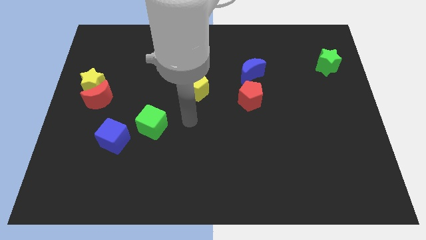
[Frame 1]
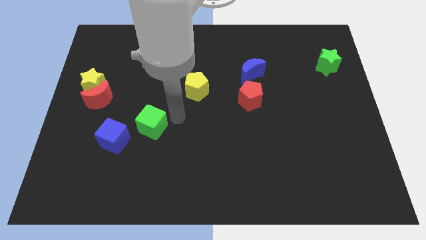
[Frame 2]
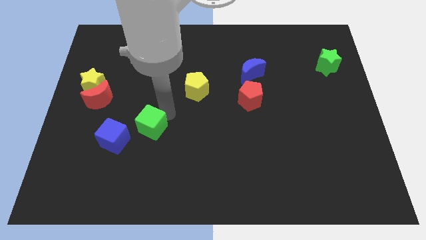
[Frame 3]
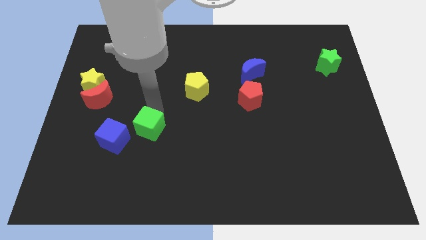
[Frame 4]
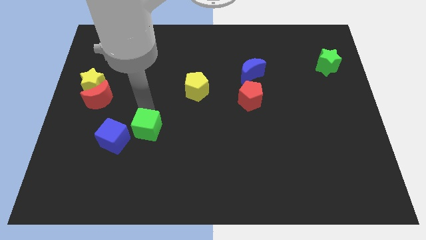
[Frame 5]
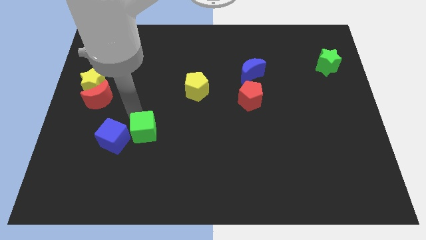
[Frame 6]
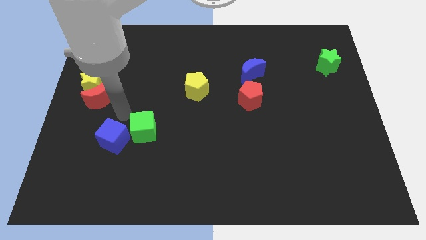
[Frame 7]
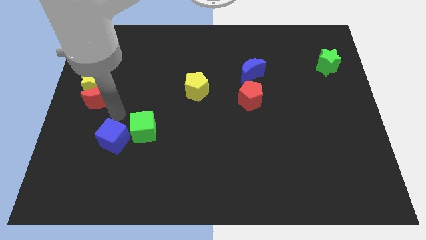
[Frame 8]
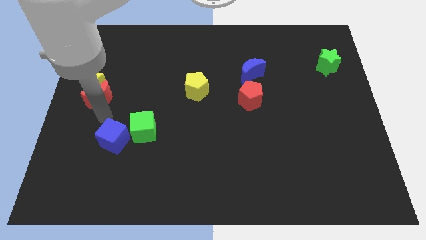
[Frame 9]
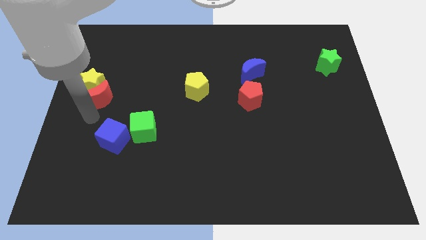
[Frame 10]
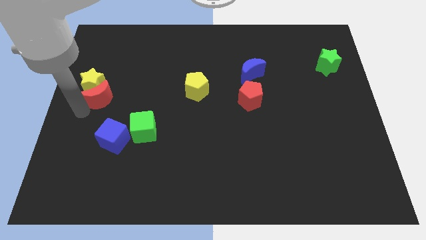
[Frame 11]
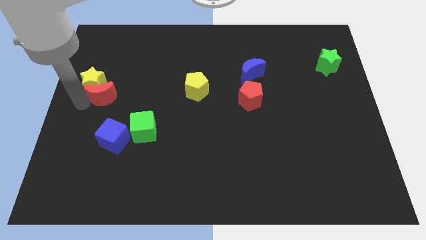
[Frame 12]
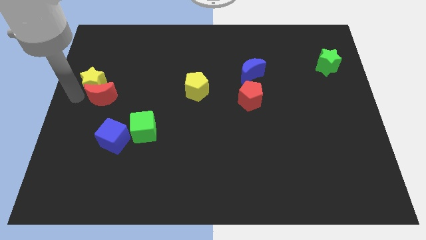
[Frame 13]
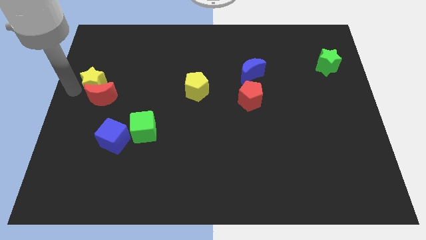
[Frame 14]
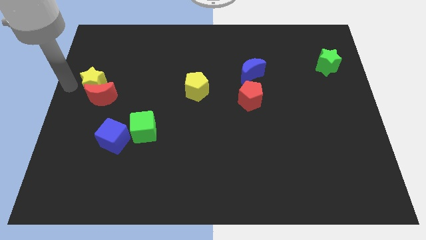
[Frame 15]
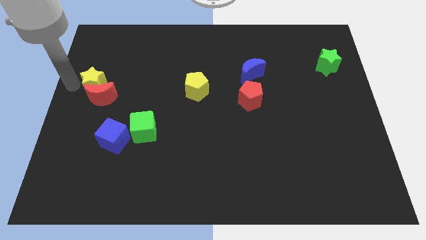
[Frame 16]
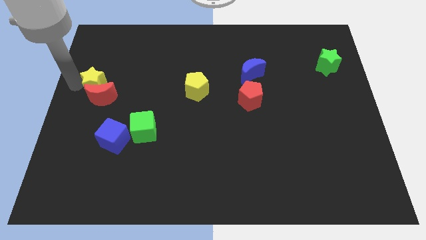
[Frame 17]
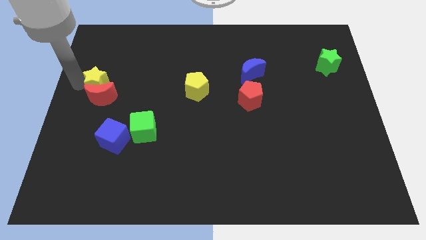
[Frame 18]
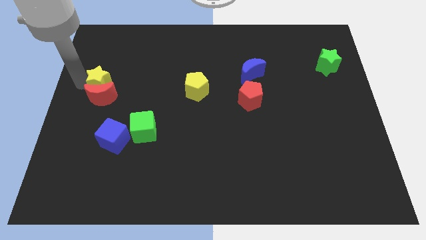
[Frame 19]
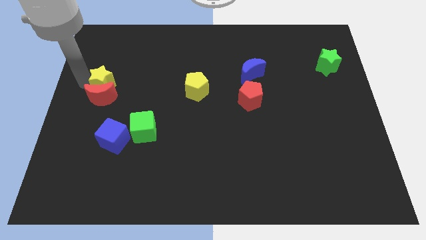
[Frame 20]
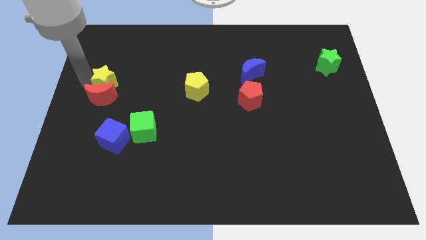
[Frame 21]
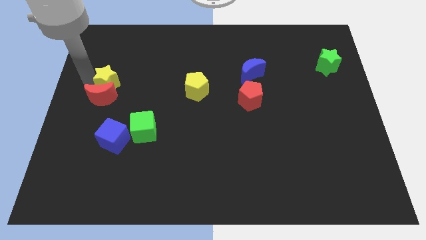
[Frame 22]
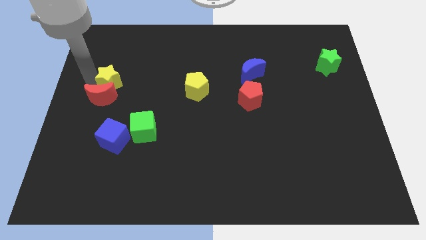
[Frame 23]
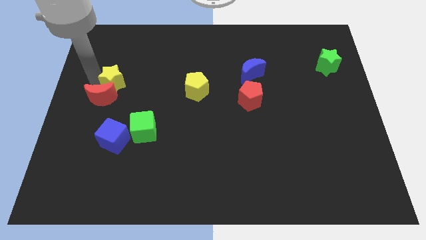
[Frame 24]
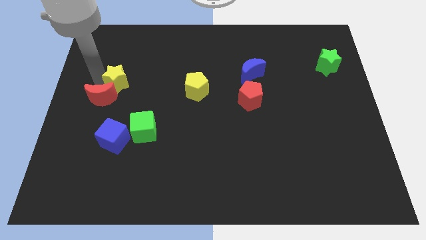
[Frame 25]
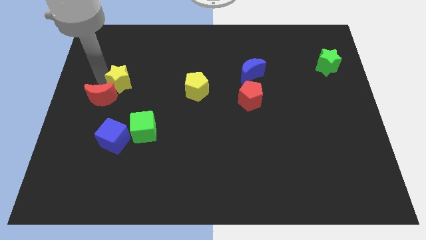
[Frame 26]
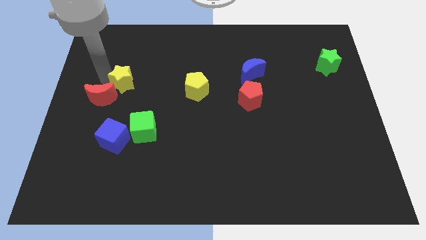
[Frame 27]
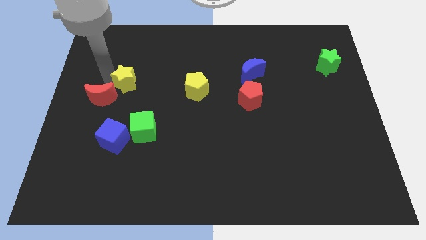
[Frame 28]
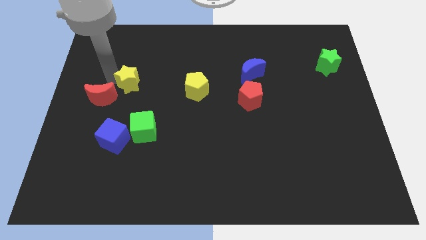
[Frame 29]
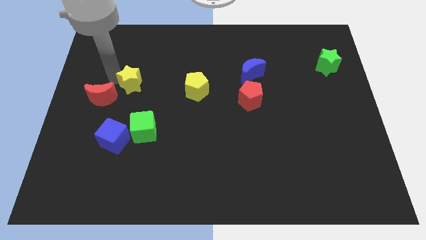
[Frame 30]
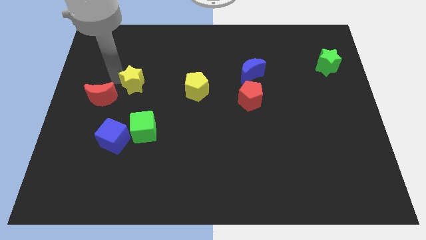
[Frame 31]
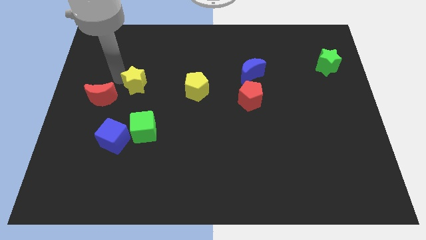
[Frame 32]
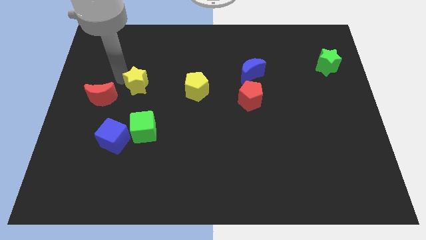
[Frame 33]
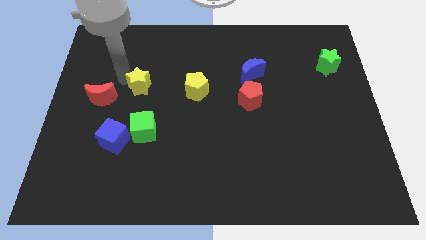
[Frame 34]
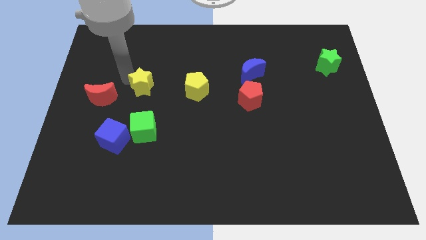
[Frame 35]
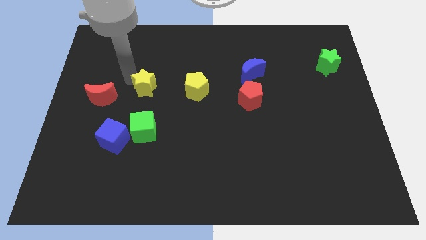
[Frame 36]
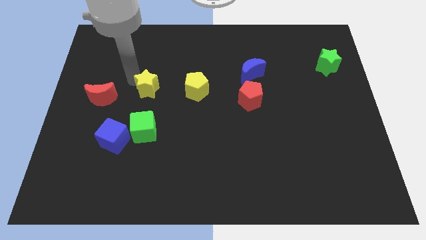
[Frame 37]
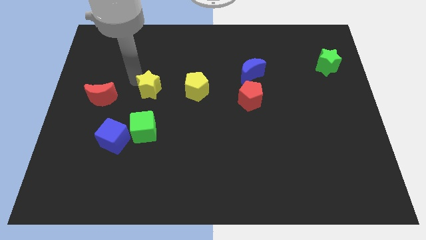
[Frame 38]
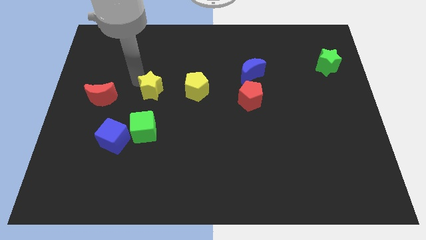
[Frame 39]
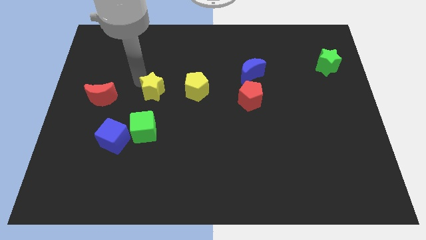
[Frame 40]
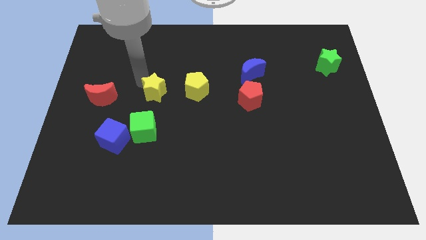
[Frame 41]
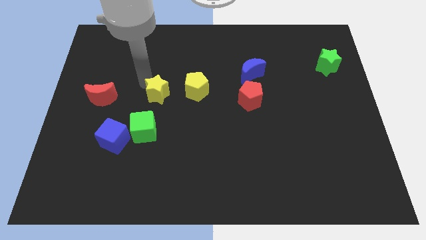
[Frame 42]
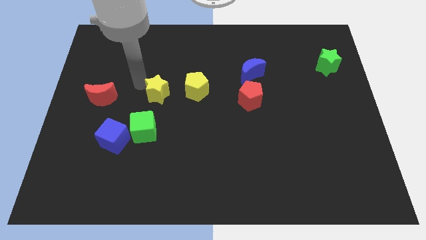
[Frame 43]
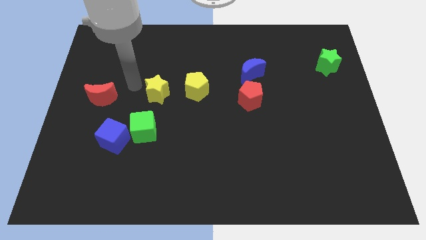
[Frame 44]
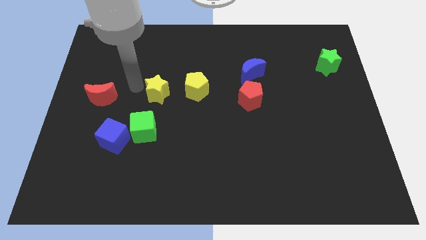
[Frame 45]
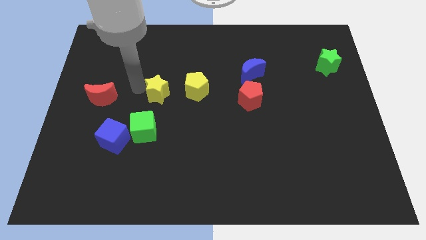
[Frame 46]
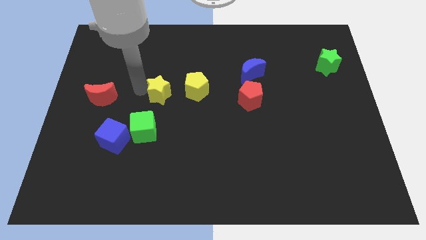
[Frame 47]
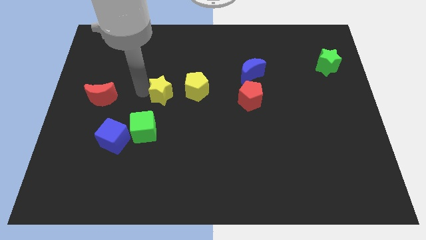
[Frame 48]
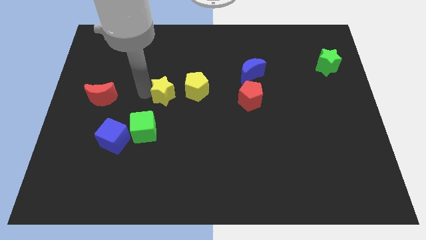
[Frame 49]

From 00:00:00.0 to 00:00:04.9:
slide the yellow star to the middle of the board

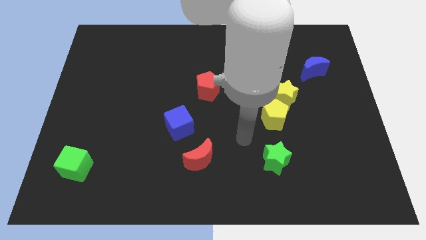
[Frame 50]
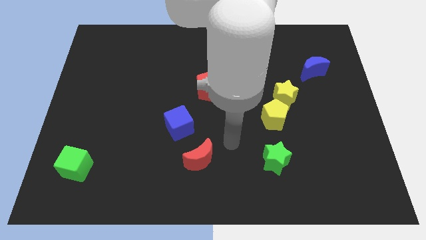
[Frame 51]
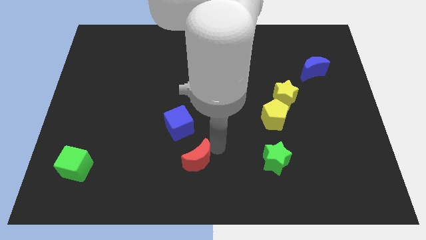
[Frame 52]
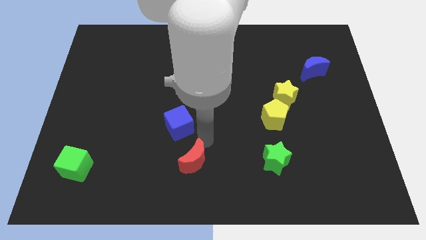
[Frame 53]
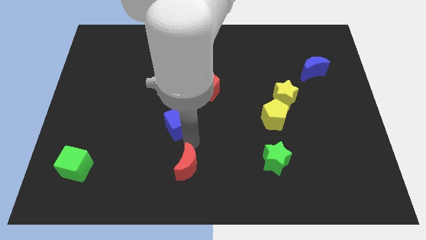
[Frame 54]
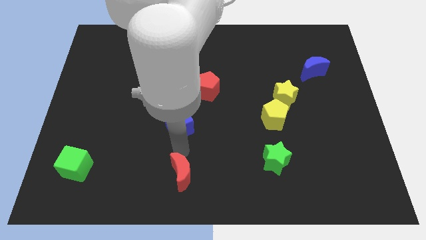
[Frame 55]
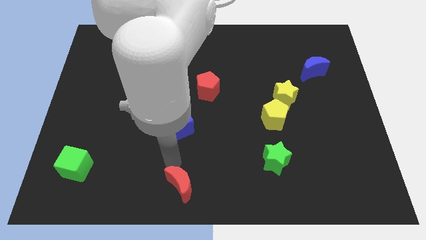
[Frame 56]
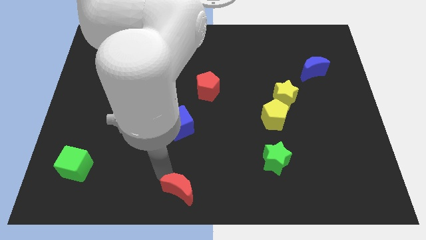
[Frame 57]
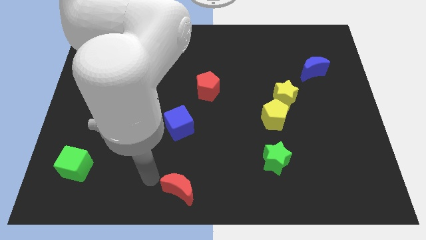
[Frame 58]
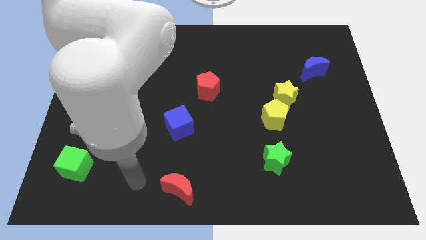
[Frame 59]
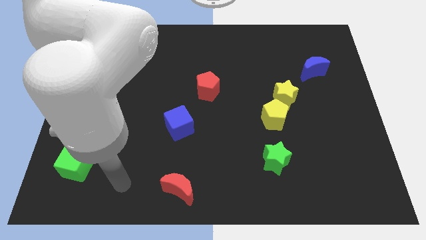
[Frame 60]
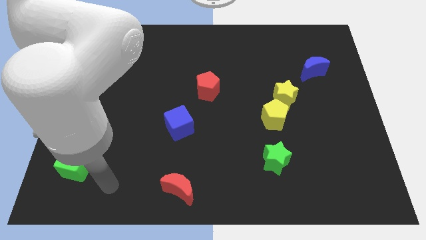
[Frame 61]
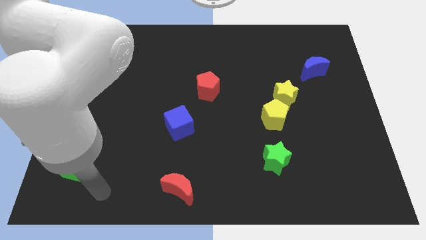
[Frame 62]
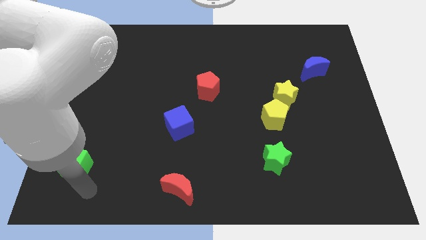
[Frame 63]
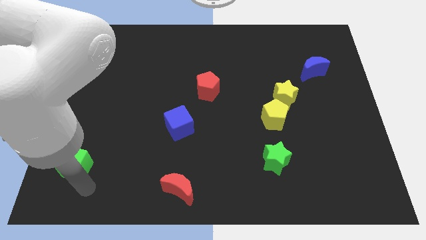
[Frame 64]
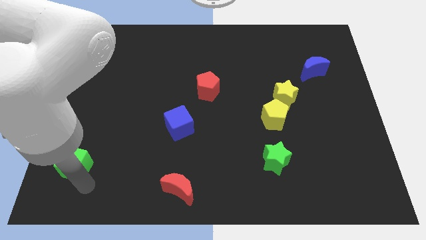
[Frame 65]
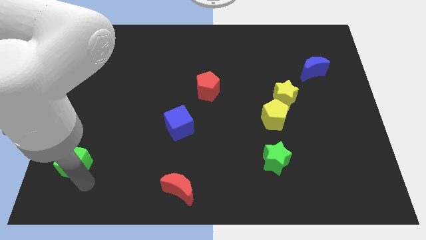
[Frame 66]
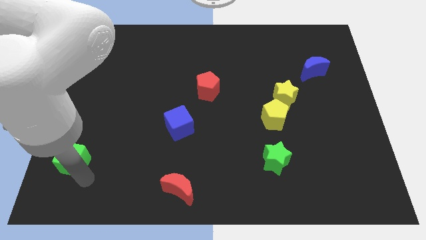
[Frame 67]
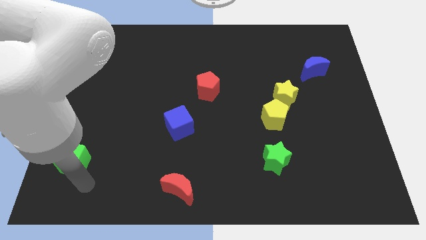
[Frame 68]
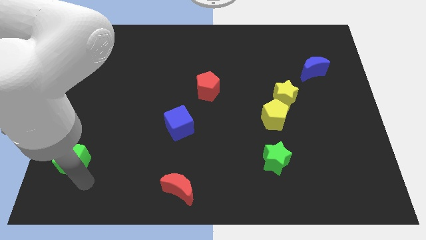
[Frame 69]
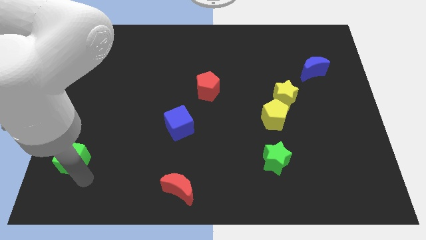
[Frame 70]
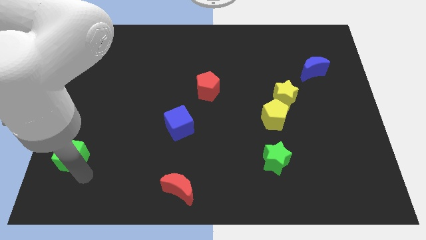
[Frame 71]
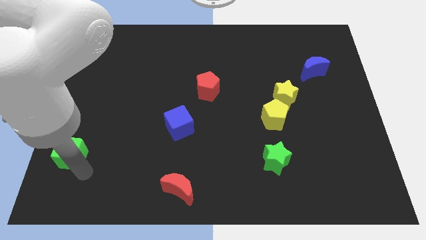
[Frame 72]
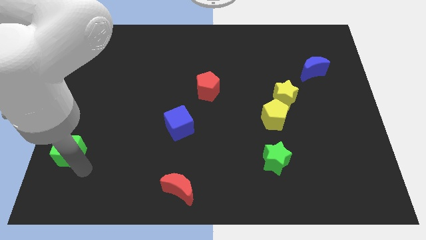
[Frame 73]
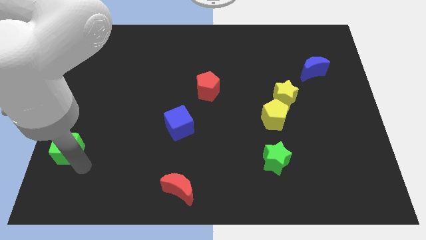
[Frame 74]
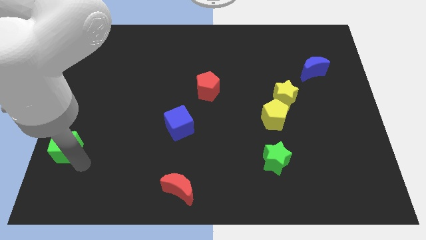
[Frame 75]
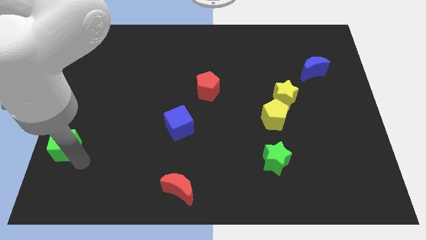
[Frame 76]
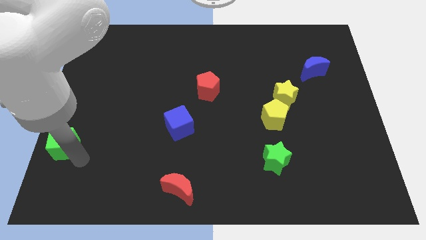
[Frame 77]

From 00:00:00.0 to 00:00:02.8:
slide the green cube to the left side of the board
